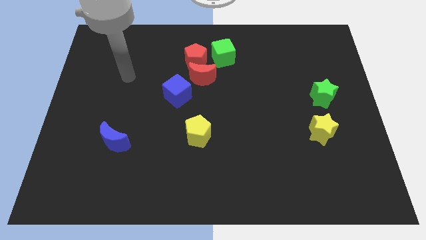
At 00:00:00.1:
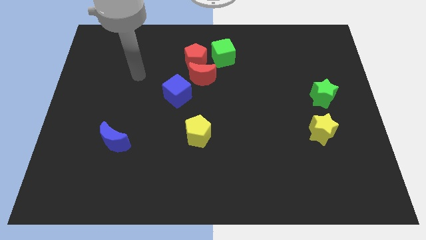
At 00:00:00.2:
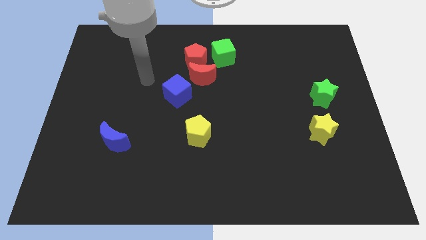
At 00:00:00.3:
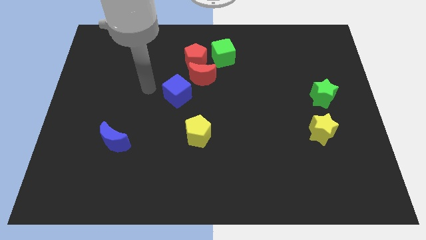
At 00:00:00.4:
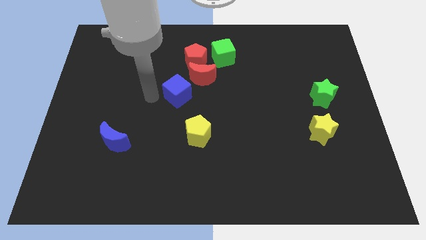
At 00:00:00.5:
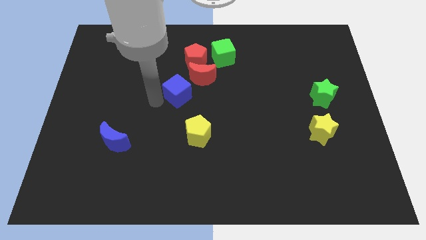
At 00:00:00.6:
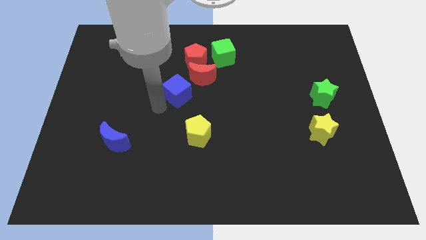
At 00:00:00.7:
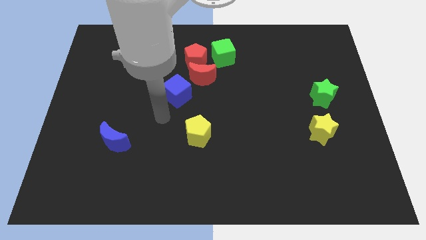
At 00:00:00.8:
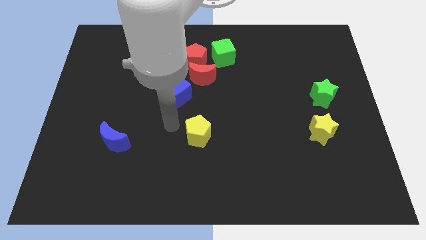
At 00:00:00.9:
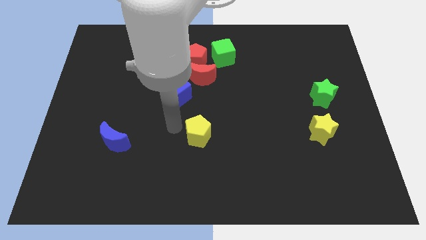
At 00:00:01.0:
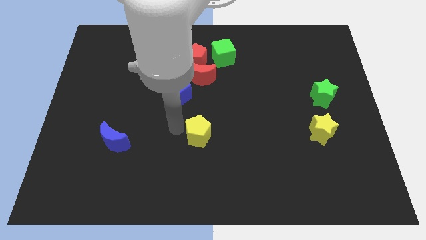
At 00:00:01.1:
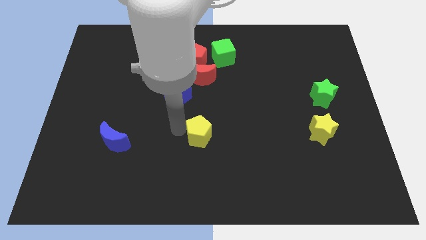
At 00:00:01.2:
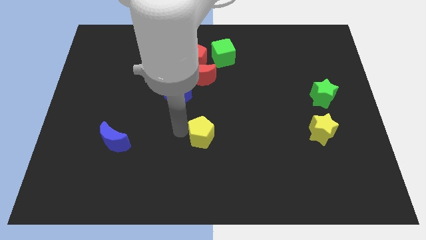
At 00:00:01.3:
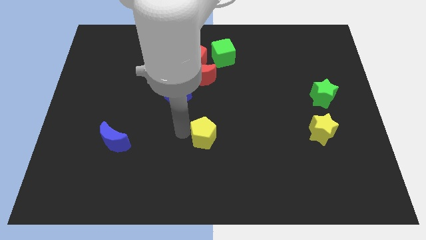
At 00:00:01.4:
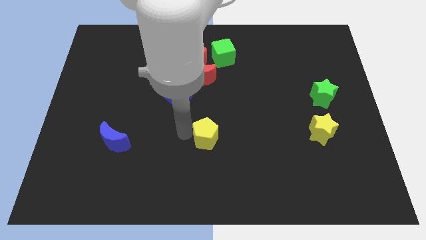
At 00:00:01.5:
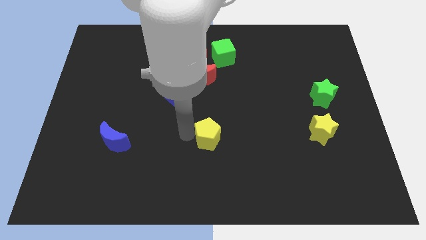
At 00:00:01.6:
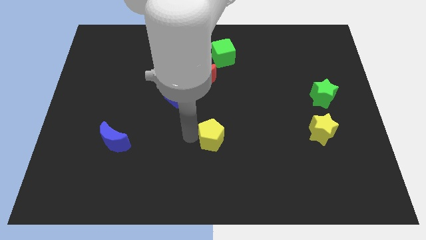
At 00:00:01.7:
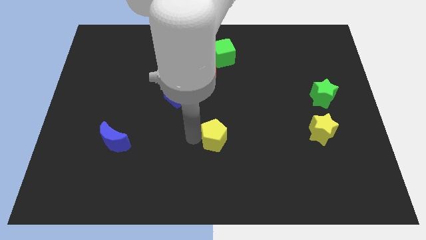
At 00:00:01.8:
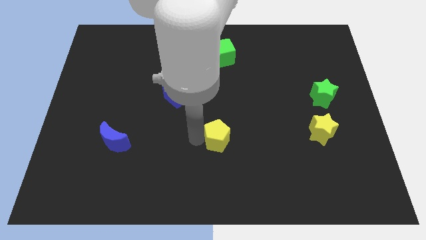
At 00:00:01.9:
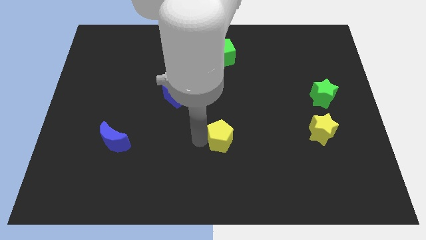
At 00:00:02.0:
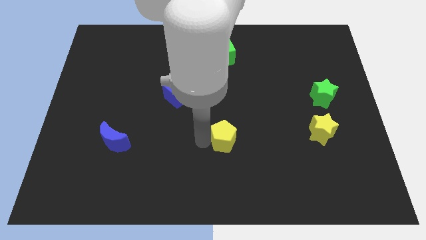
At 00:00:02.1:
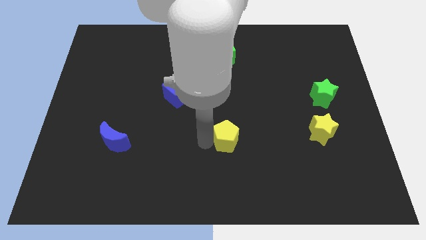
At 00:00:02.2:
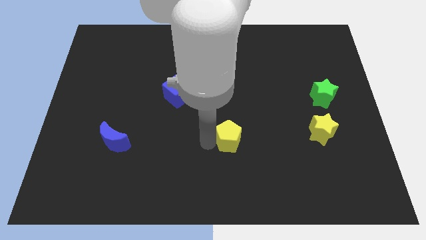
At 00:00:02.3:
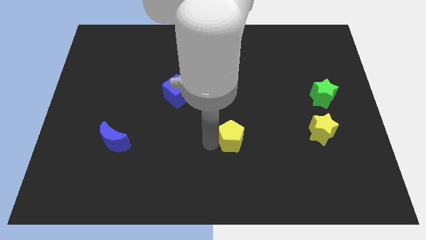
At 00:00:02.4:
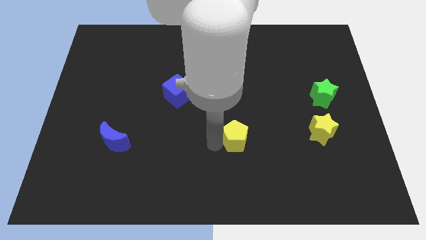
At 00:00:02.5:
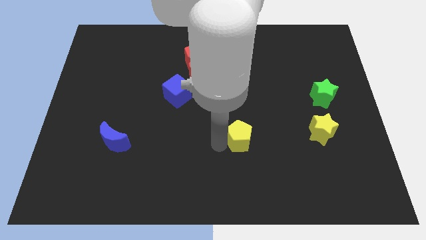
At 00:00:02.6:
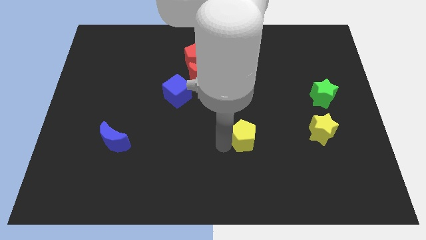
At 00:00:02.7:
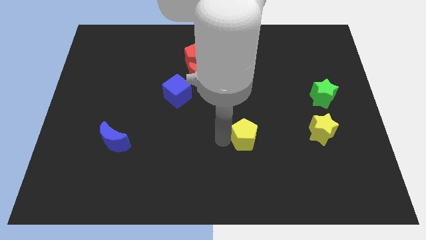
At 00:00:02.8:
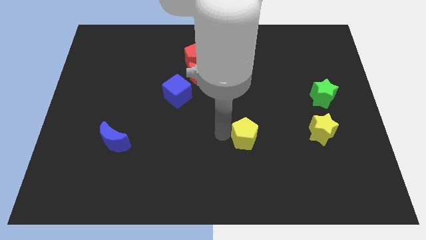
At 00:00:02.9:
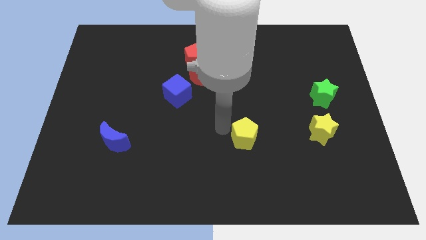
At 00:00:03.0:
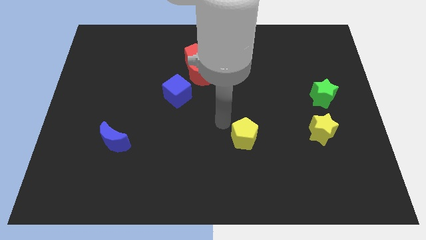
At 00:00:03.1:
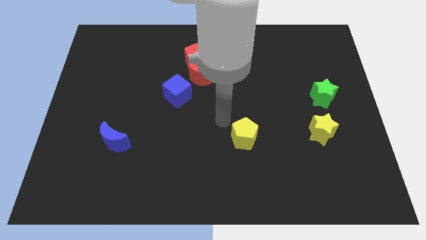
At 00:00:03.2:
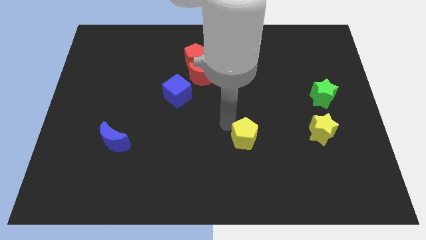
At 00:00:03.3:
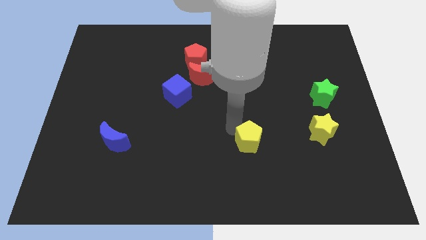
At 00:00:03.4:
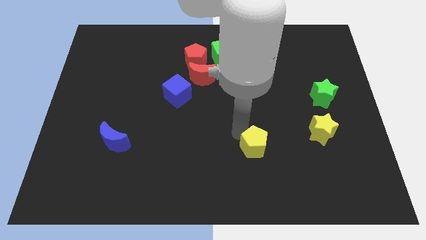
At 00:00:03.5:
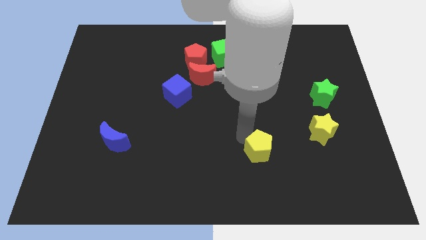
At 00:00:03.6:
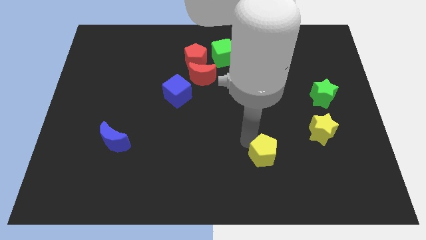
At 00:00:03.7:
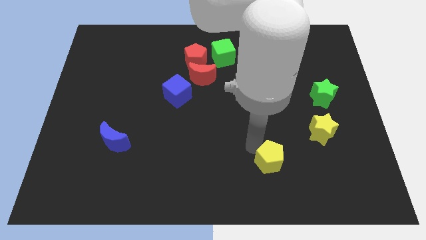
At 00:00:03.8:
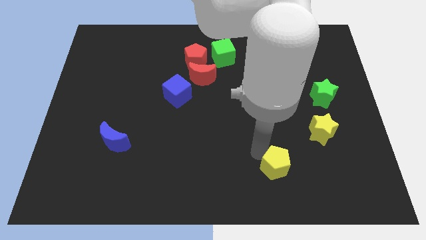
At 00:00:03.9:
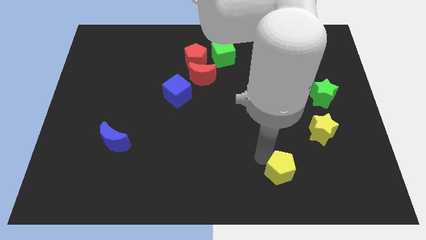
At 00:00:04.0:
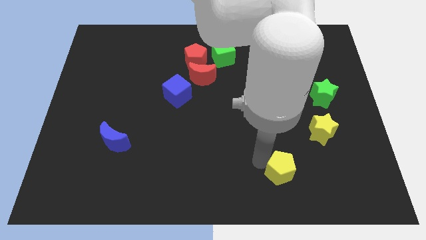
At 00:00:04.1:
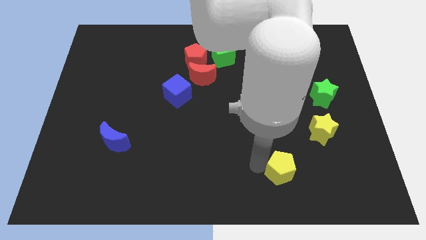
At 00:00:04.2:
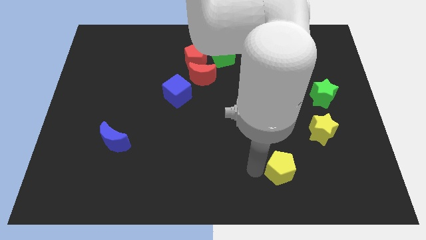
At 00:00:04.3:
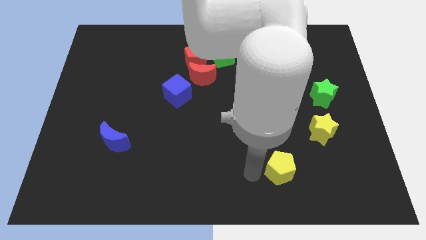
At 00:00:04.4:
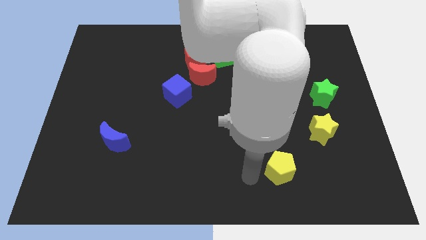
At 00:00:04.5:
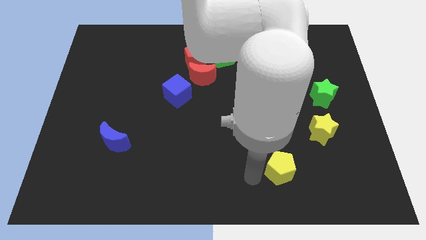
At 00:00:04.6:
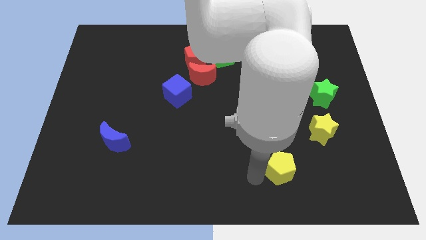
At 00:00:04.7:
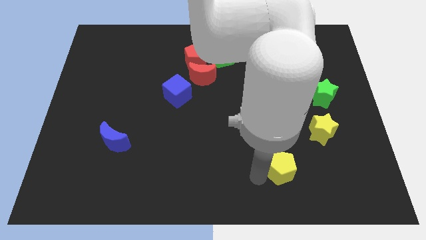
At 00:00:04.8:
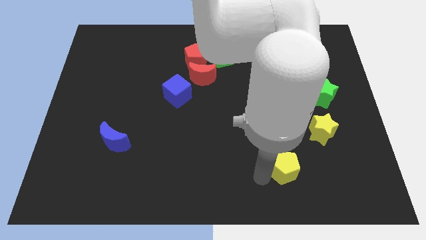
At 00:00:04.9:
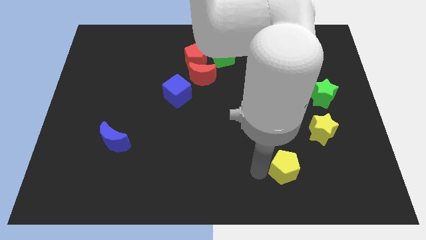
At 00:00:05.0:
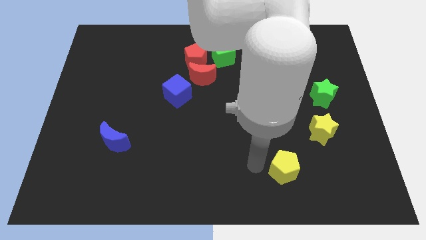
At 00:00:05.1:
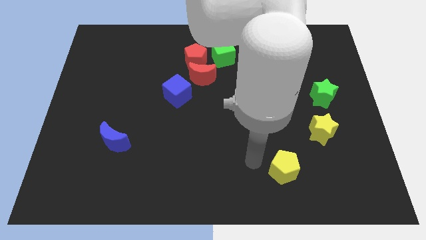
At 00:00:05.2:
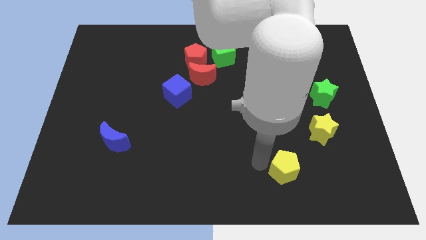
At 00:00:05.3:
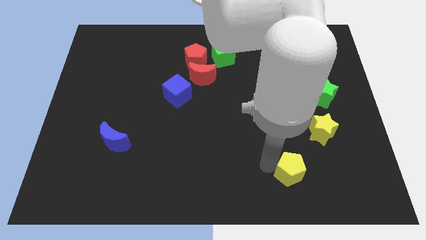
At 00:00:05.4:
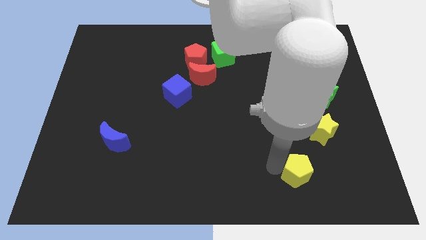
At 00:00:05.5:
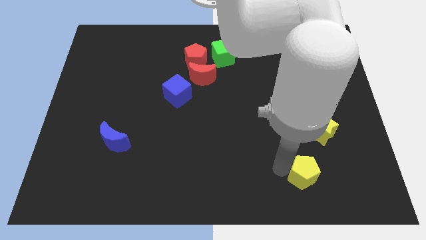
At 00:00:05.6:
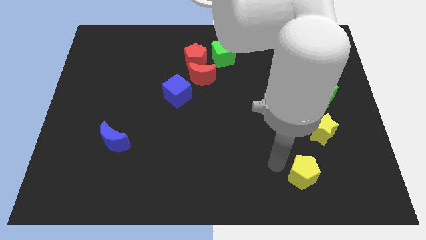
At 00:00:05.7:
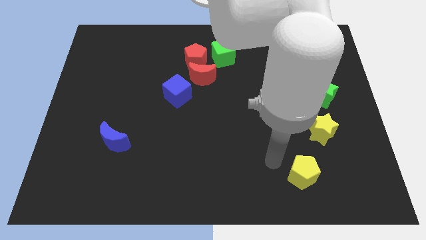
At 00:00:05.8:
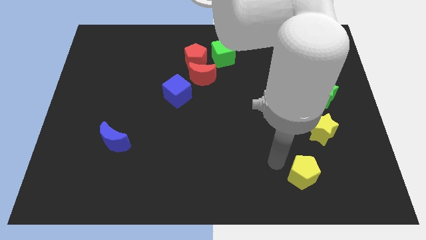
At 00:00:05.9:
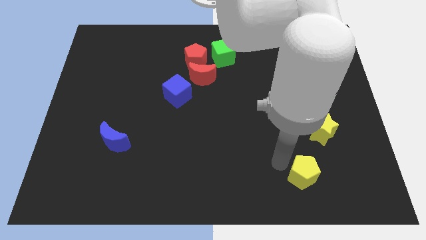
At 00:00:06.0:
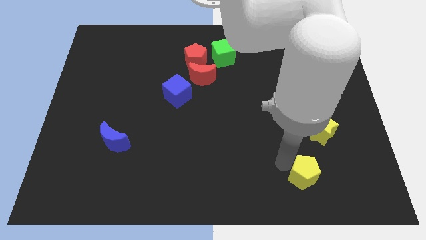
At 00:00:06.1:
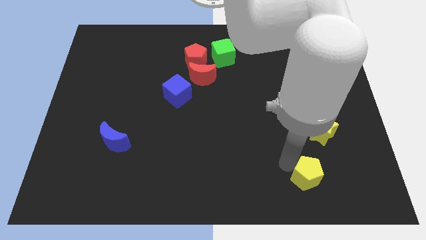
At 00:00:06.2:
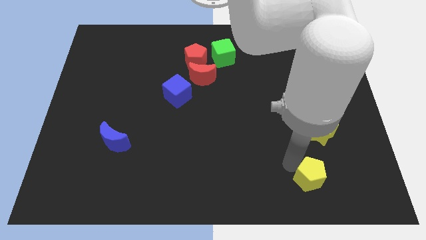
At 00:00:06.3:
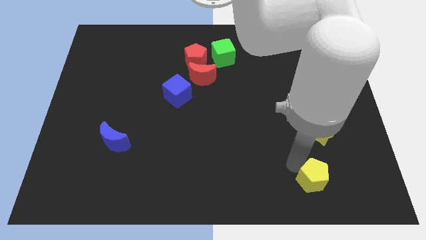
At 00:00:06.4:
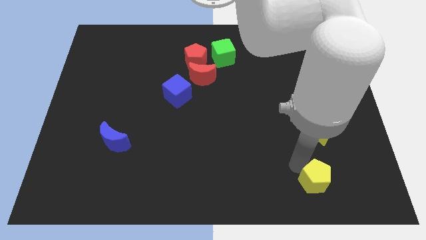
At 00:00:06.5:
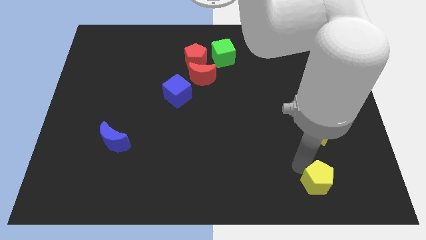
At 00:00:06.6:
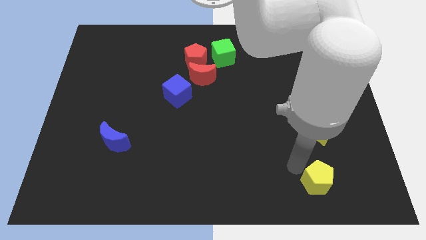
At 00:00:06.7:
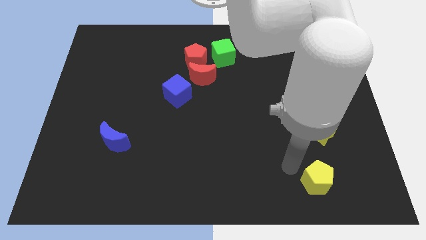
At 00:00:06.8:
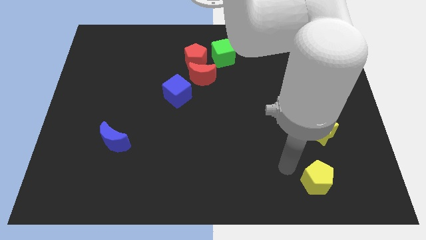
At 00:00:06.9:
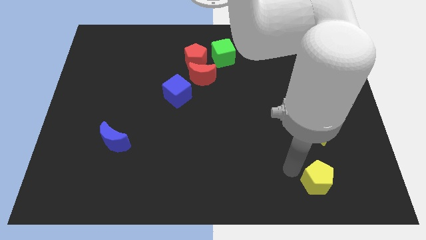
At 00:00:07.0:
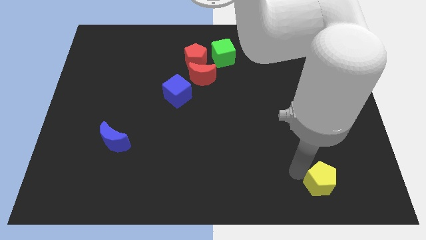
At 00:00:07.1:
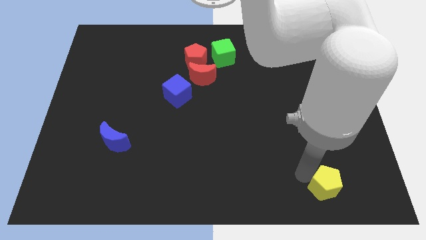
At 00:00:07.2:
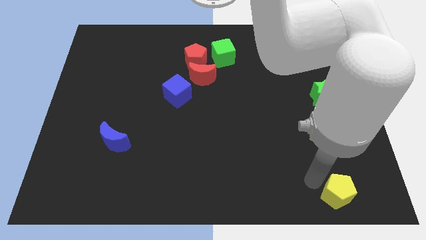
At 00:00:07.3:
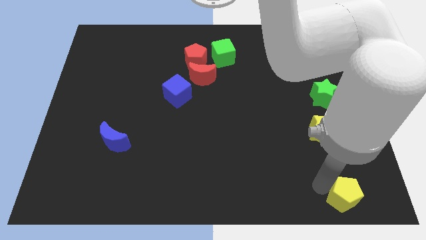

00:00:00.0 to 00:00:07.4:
put the yellow pentagon to the bottom right corner

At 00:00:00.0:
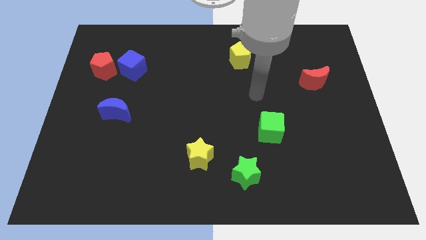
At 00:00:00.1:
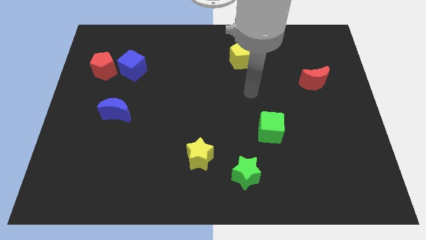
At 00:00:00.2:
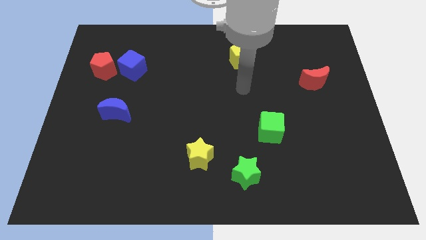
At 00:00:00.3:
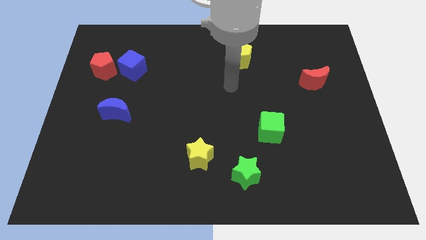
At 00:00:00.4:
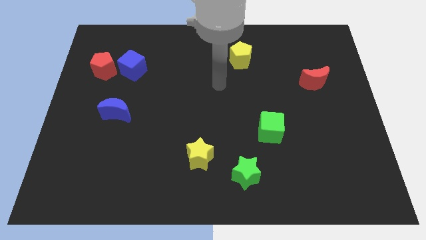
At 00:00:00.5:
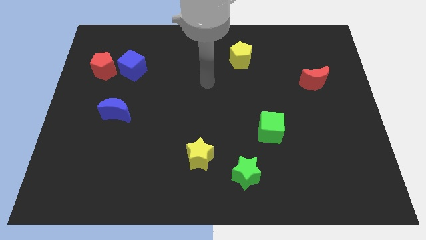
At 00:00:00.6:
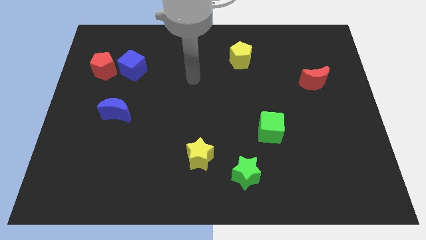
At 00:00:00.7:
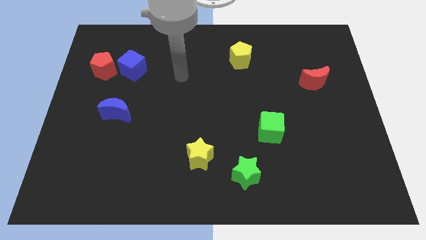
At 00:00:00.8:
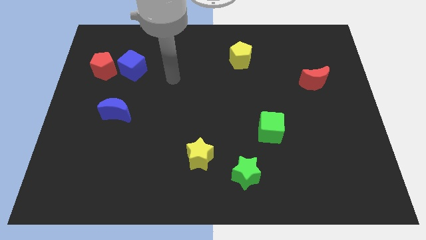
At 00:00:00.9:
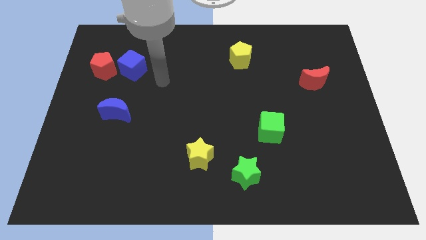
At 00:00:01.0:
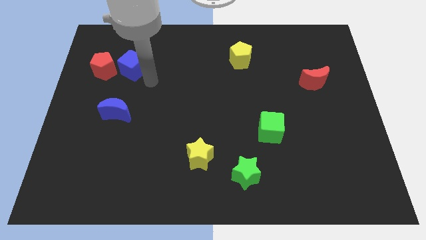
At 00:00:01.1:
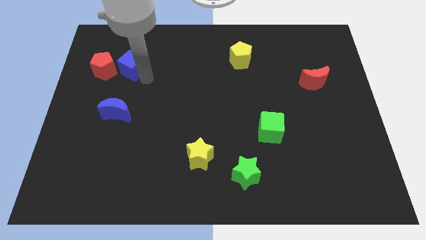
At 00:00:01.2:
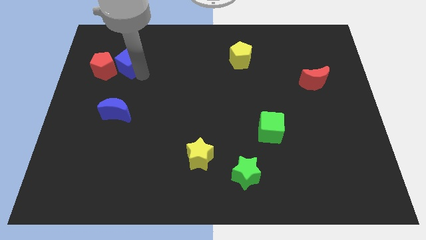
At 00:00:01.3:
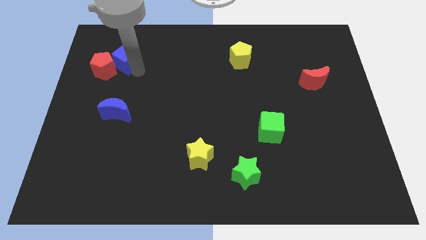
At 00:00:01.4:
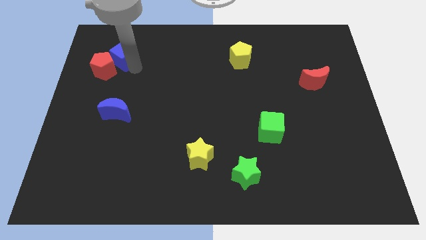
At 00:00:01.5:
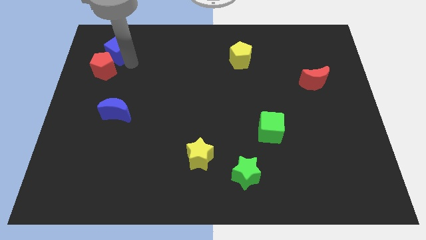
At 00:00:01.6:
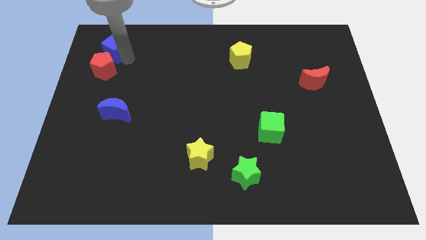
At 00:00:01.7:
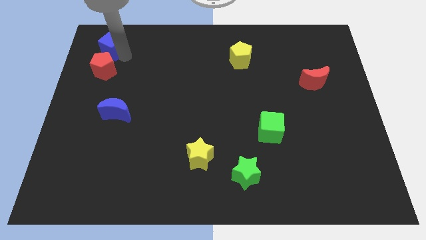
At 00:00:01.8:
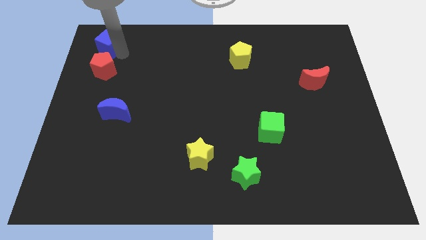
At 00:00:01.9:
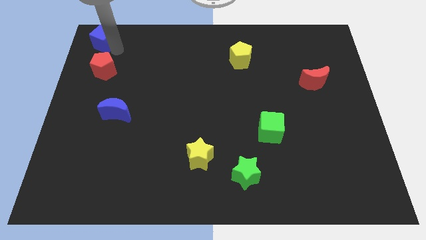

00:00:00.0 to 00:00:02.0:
slide the blue cube to the top left
